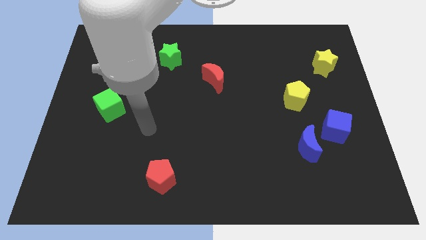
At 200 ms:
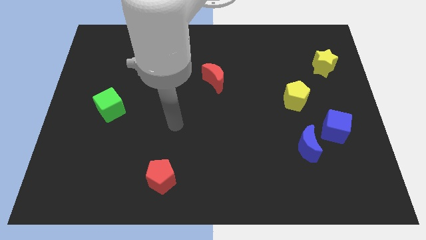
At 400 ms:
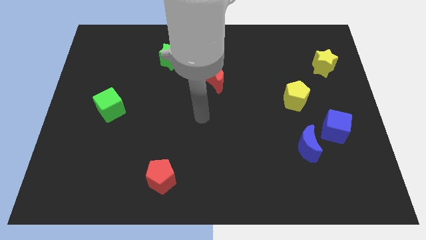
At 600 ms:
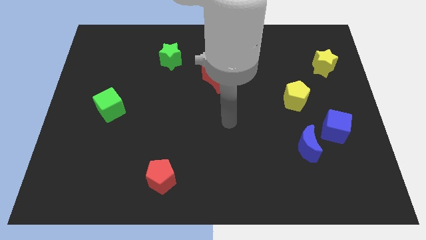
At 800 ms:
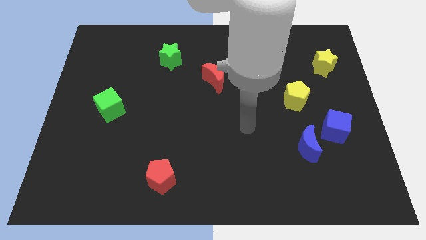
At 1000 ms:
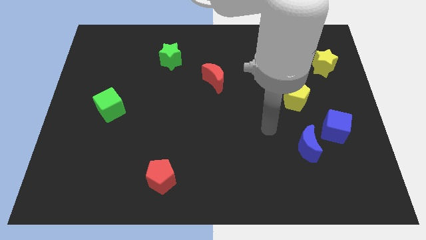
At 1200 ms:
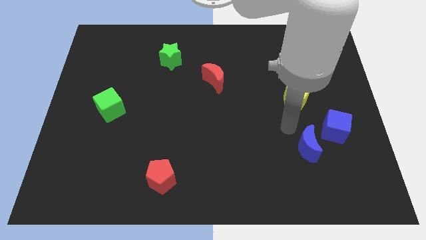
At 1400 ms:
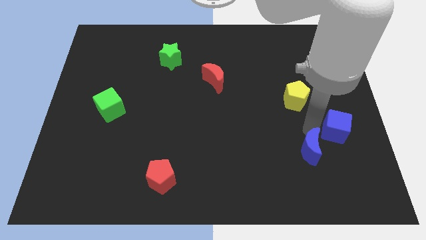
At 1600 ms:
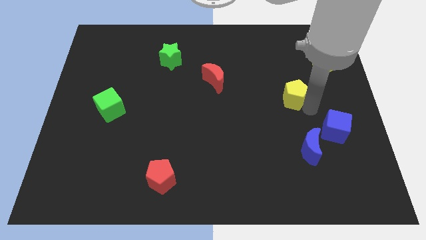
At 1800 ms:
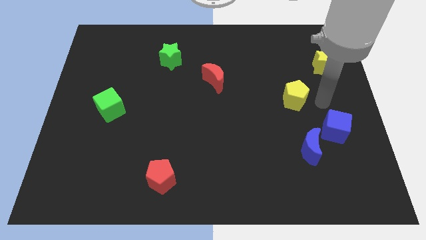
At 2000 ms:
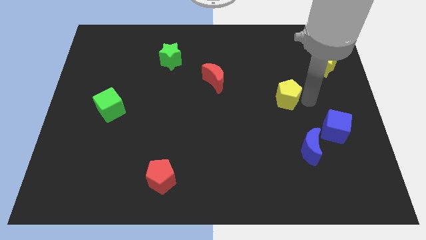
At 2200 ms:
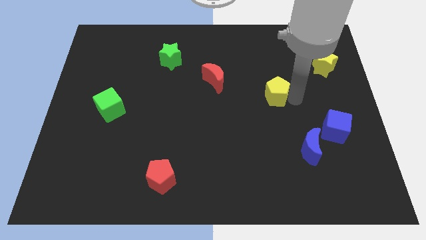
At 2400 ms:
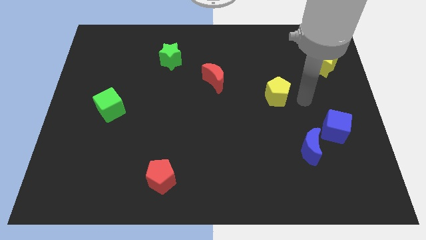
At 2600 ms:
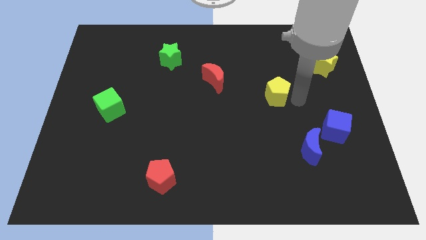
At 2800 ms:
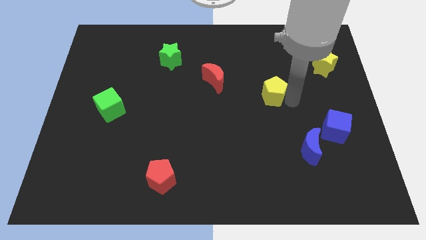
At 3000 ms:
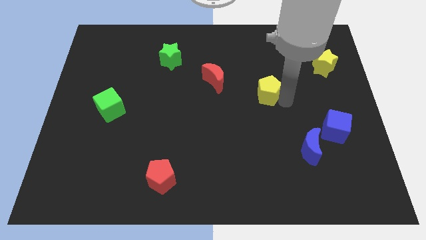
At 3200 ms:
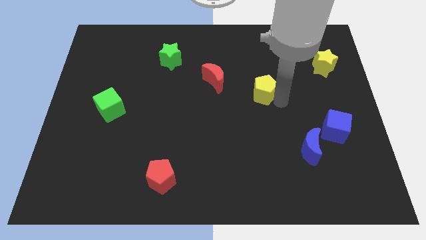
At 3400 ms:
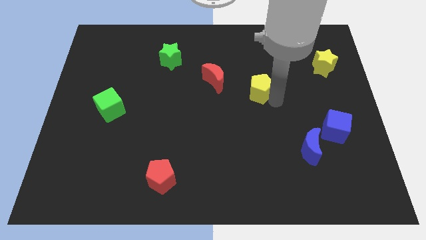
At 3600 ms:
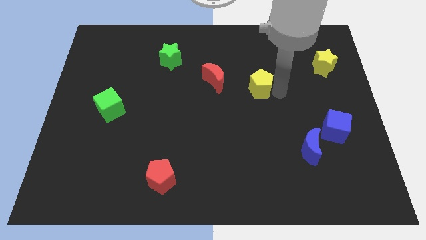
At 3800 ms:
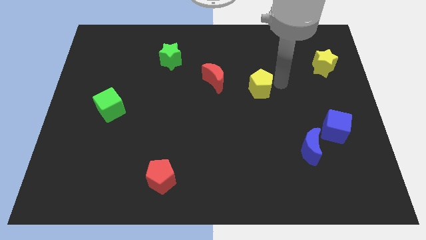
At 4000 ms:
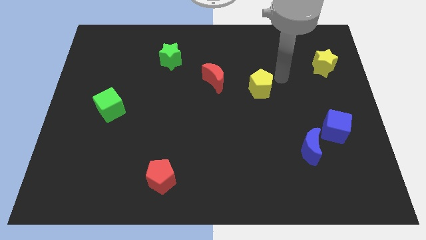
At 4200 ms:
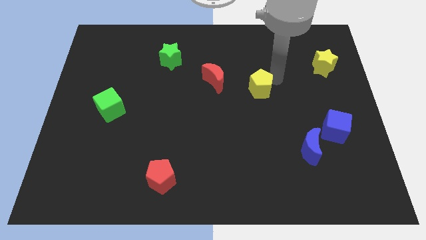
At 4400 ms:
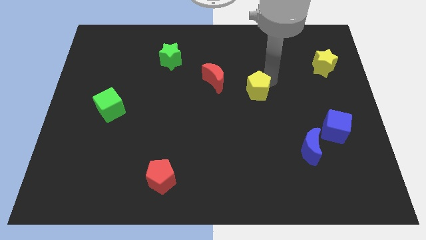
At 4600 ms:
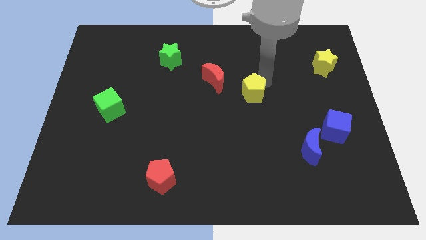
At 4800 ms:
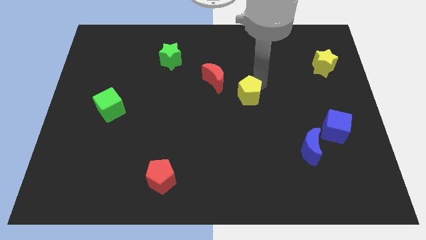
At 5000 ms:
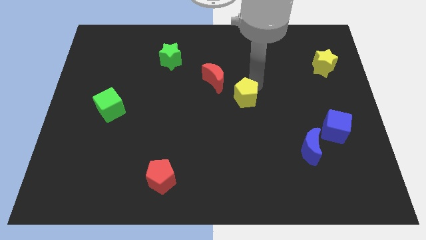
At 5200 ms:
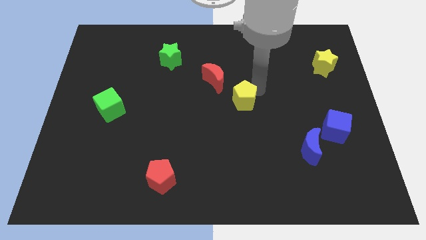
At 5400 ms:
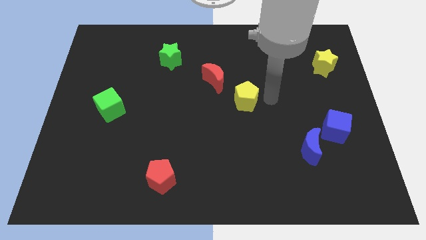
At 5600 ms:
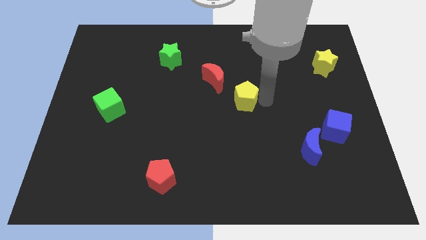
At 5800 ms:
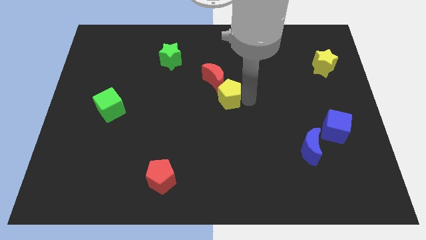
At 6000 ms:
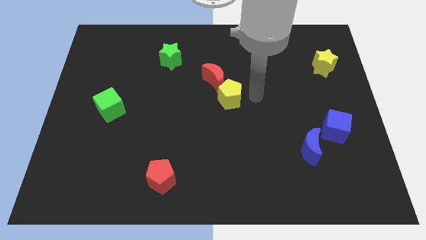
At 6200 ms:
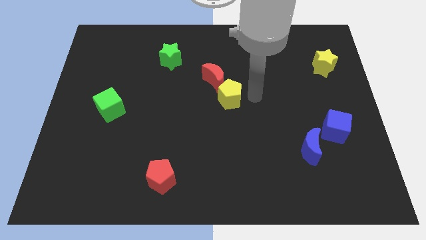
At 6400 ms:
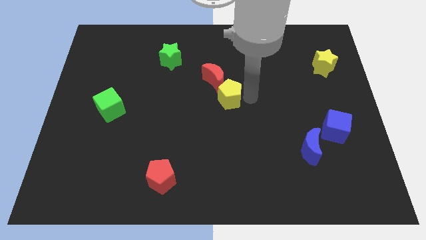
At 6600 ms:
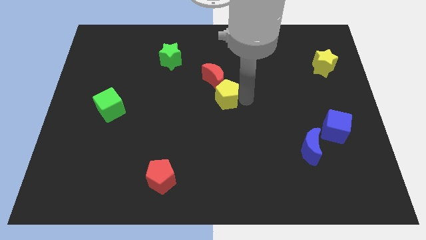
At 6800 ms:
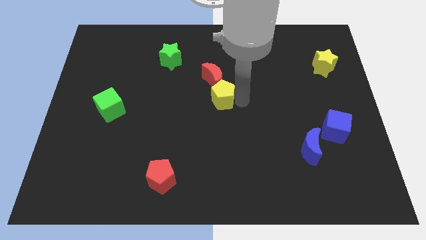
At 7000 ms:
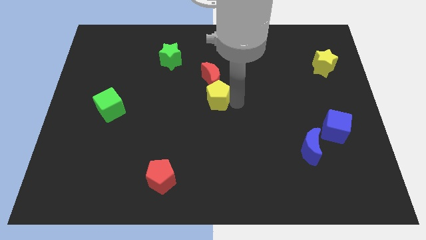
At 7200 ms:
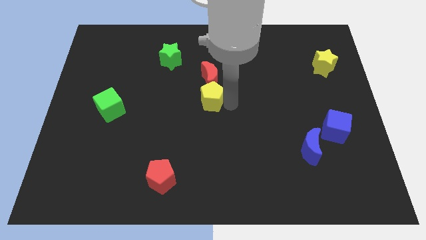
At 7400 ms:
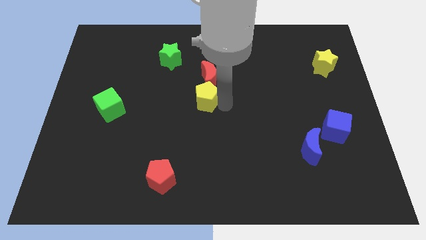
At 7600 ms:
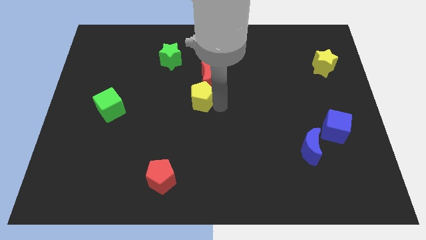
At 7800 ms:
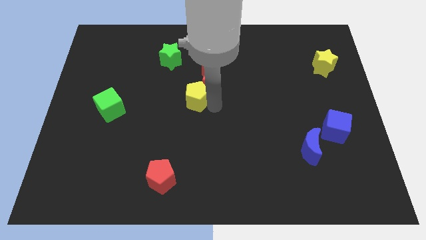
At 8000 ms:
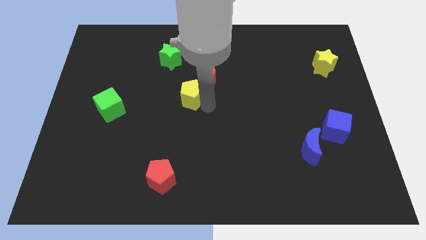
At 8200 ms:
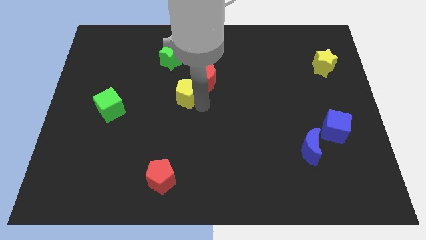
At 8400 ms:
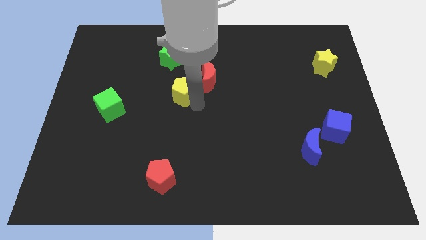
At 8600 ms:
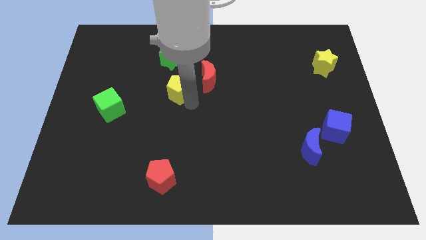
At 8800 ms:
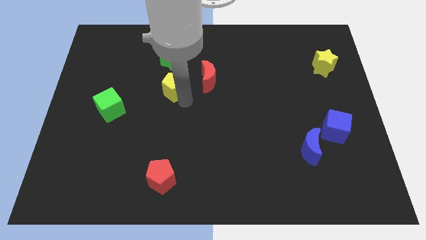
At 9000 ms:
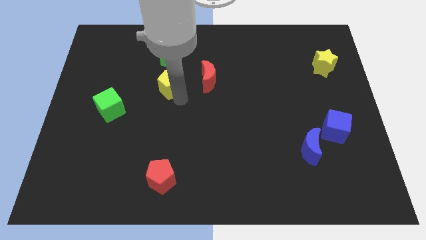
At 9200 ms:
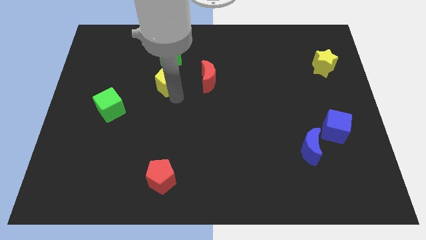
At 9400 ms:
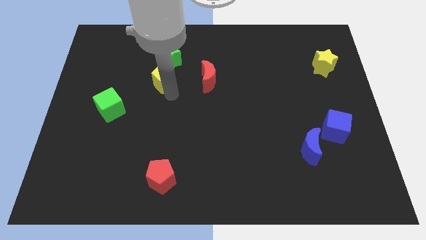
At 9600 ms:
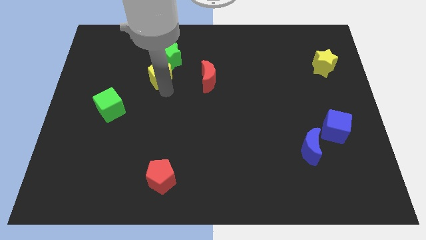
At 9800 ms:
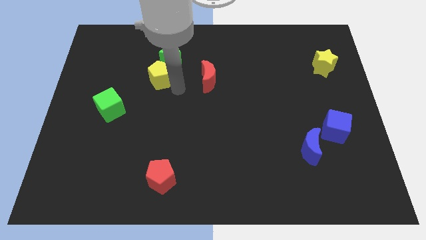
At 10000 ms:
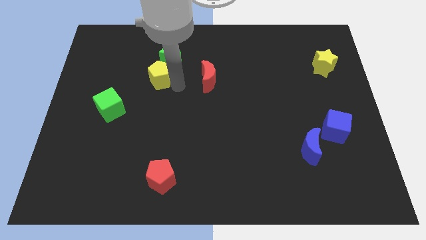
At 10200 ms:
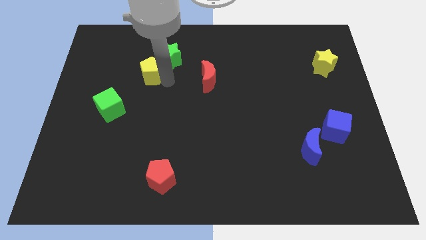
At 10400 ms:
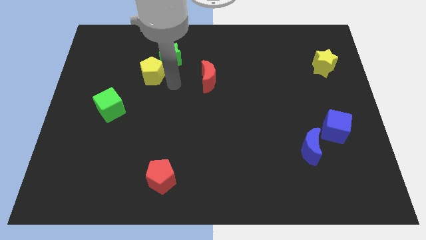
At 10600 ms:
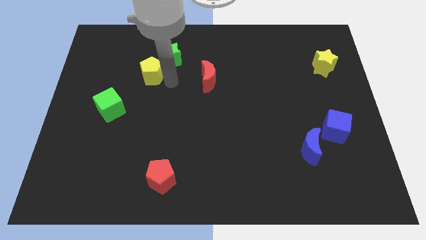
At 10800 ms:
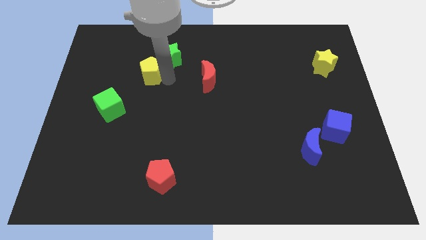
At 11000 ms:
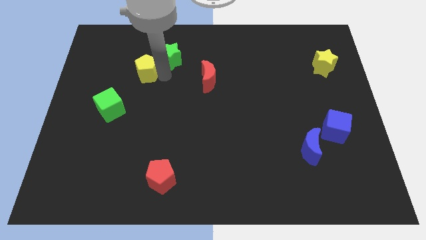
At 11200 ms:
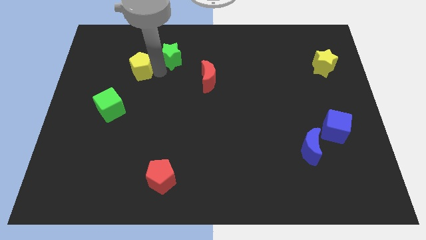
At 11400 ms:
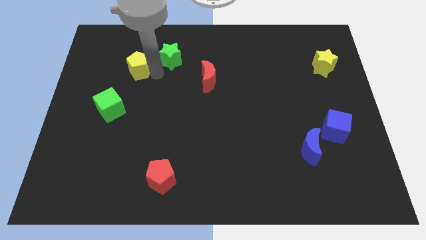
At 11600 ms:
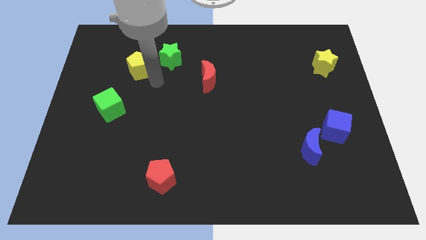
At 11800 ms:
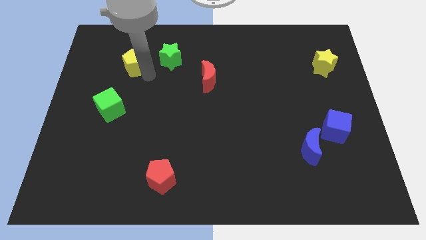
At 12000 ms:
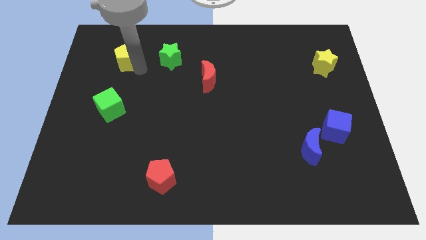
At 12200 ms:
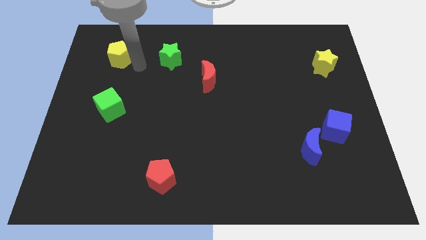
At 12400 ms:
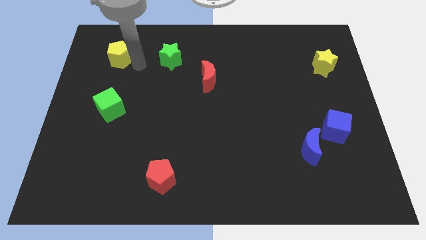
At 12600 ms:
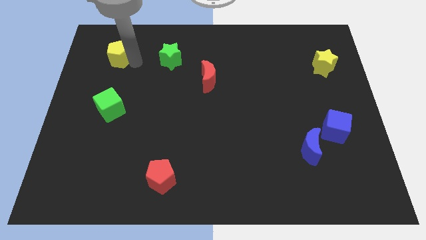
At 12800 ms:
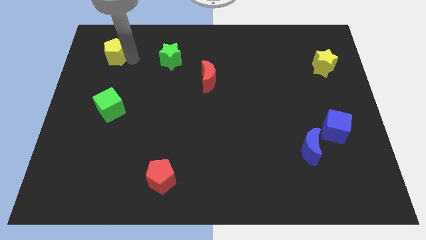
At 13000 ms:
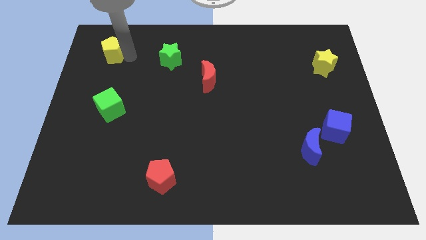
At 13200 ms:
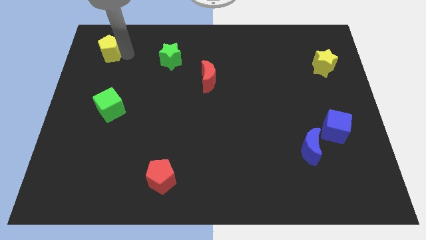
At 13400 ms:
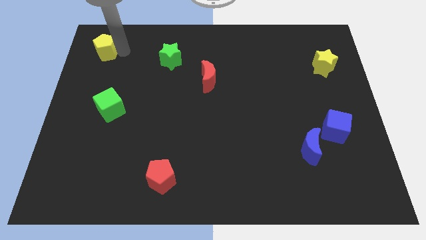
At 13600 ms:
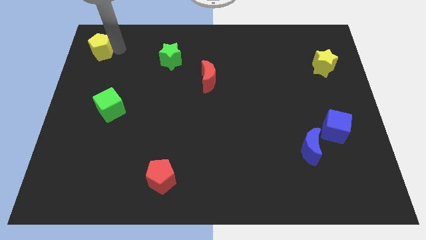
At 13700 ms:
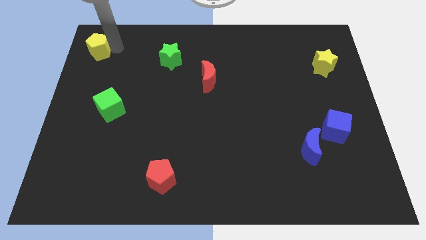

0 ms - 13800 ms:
slide the yellow pentagon to the upper left corner
